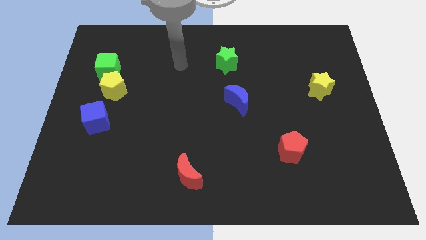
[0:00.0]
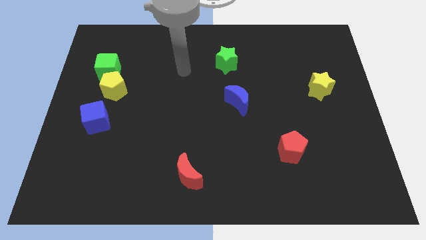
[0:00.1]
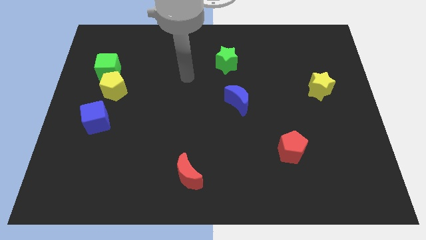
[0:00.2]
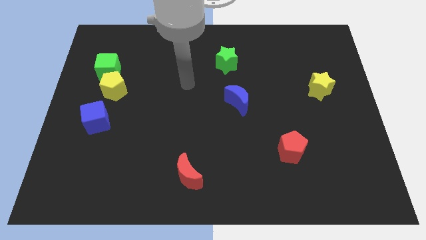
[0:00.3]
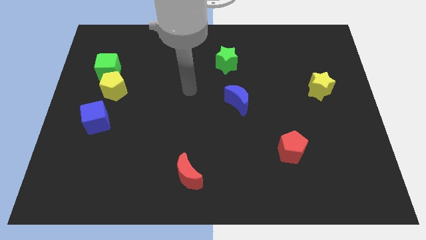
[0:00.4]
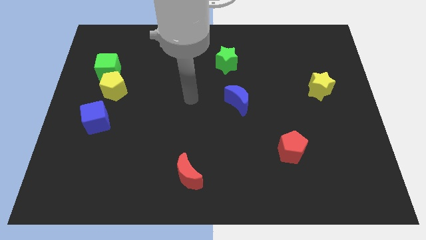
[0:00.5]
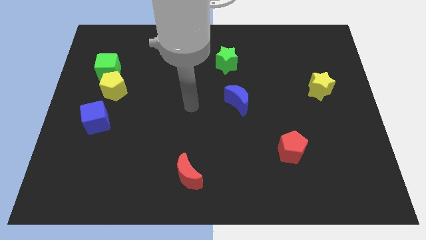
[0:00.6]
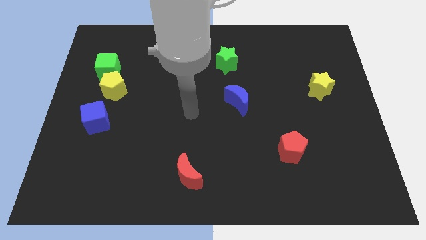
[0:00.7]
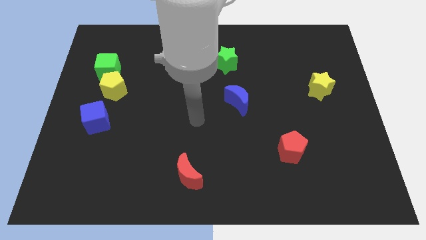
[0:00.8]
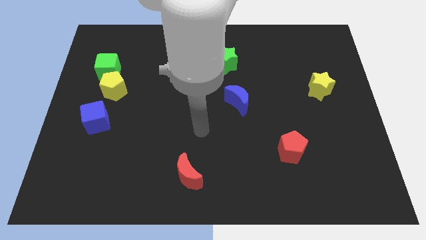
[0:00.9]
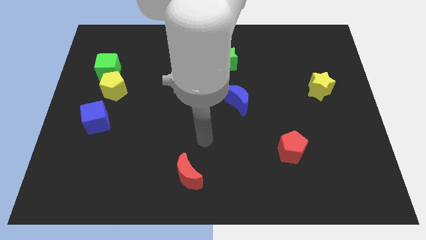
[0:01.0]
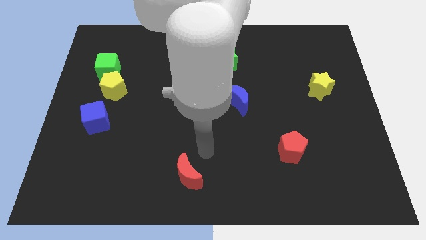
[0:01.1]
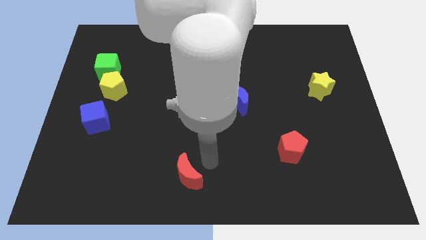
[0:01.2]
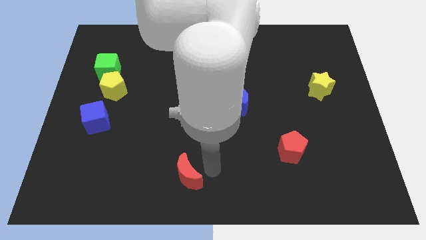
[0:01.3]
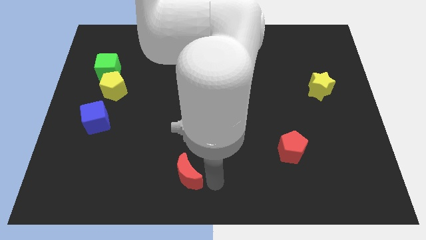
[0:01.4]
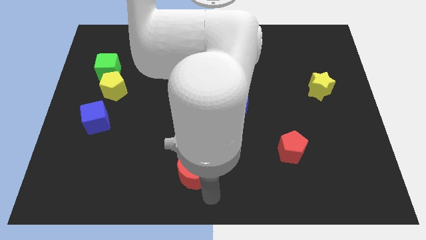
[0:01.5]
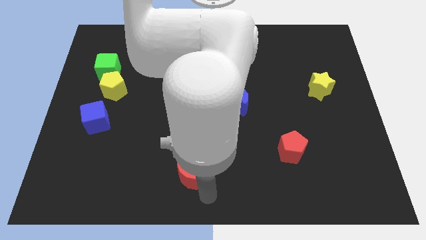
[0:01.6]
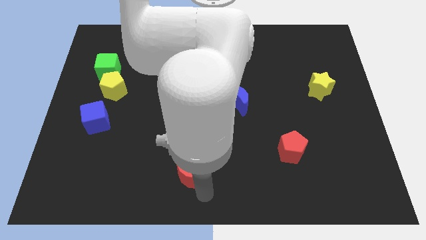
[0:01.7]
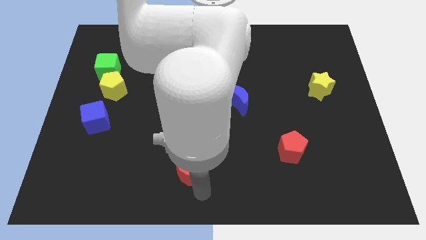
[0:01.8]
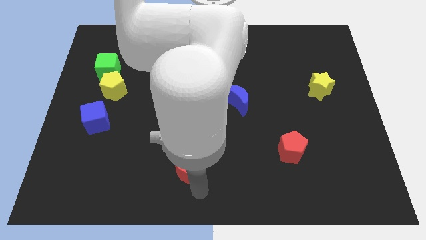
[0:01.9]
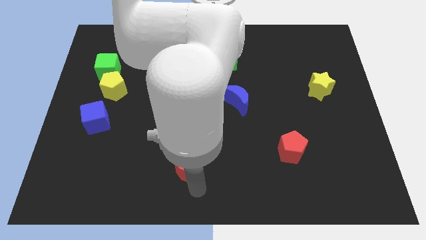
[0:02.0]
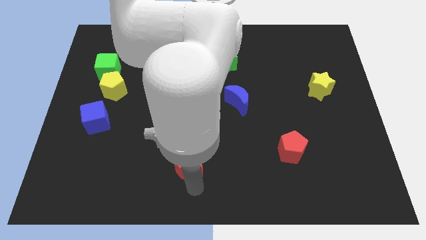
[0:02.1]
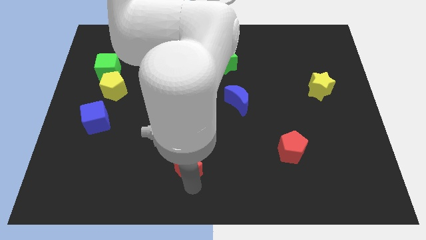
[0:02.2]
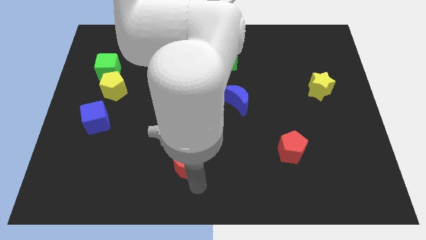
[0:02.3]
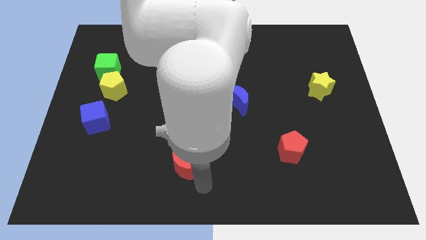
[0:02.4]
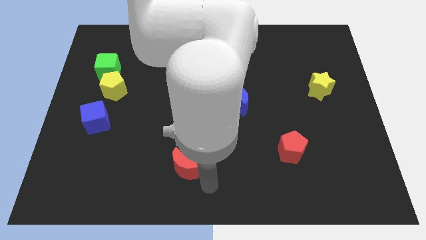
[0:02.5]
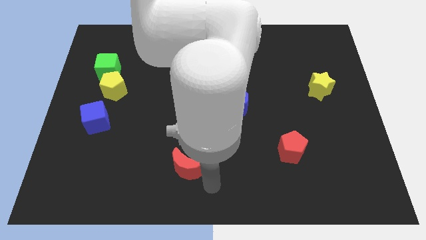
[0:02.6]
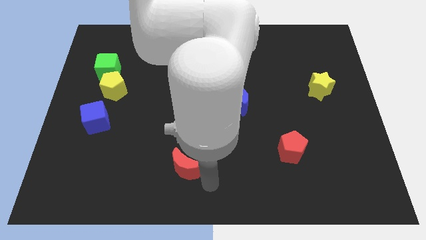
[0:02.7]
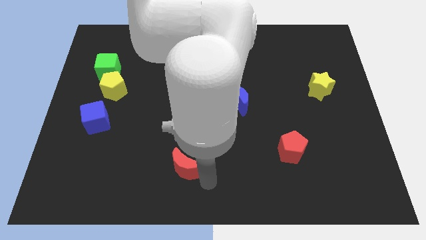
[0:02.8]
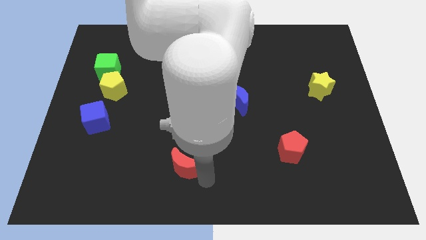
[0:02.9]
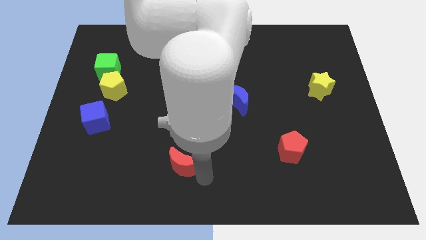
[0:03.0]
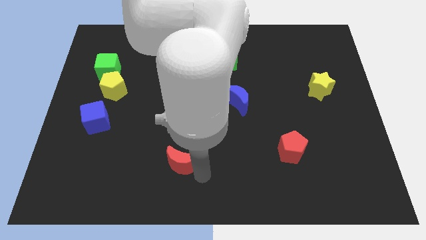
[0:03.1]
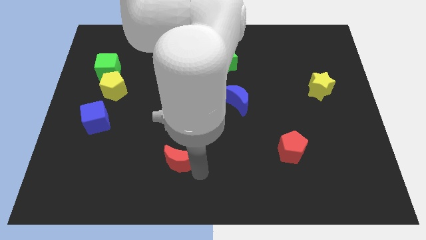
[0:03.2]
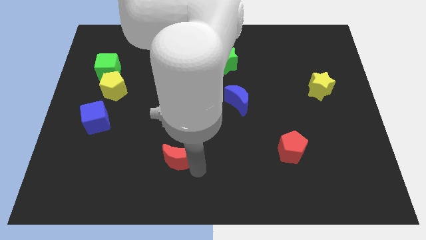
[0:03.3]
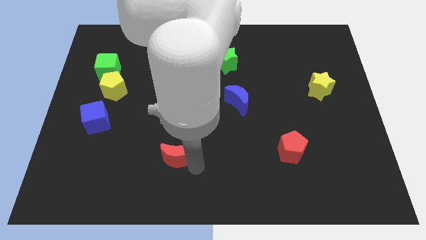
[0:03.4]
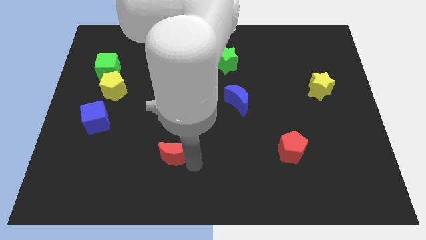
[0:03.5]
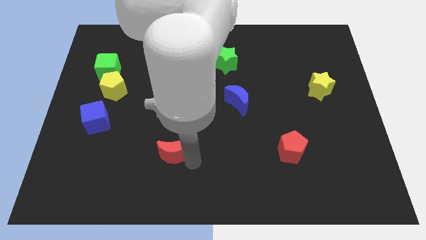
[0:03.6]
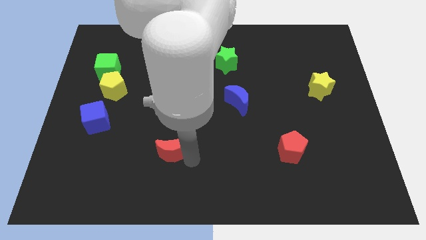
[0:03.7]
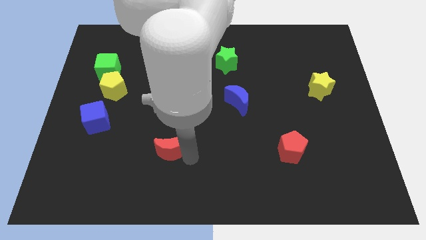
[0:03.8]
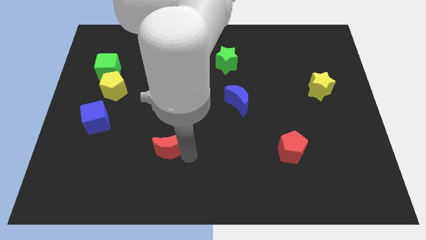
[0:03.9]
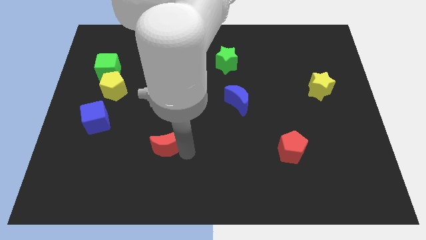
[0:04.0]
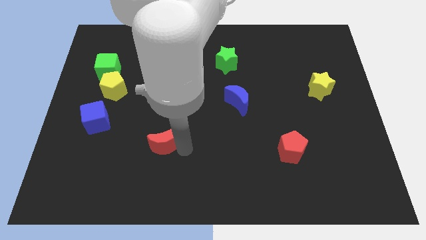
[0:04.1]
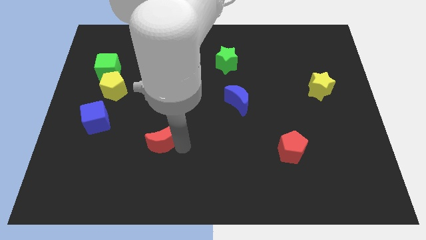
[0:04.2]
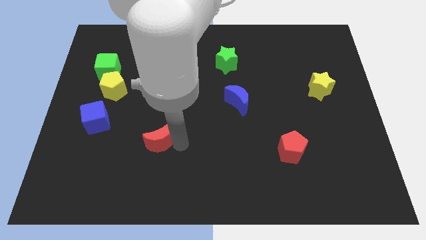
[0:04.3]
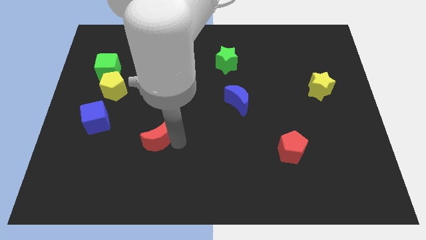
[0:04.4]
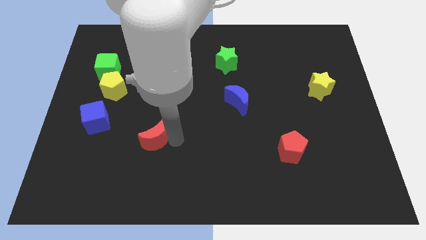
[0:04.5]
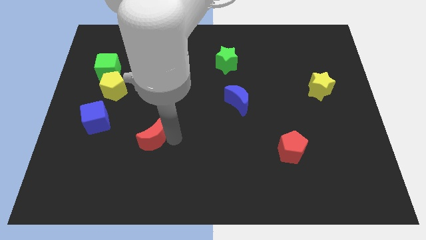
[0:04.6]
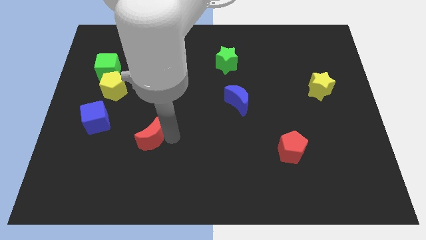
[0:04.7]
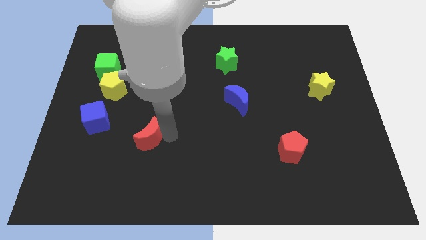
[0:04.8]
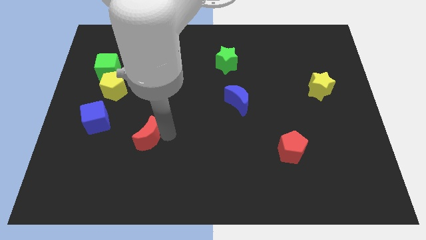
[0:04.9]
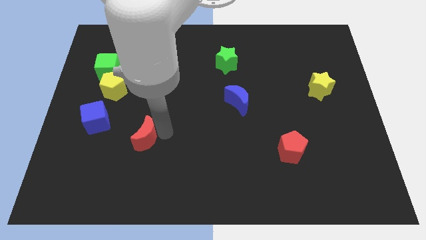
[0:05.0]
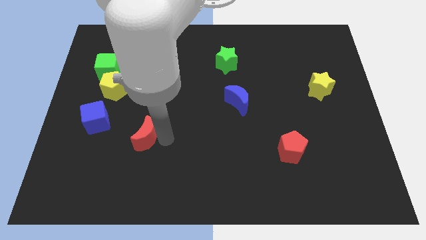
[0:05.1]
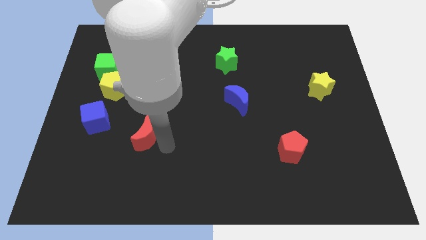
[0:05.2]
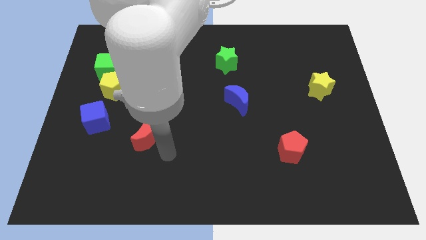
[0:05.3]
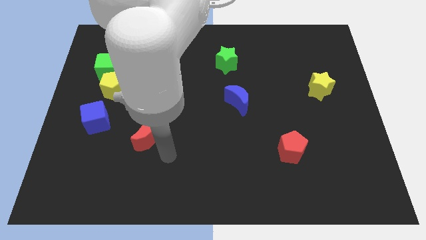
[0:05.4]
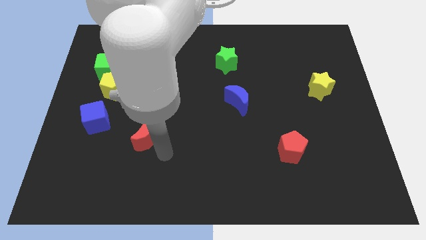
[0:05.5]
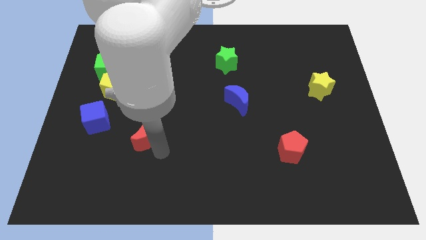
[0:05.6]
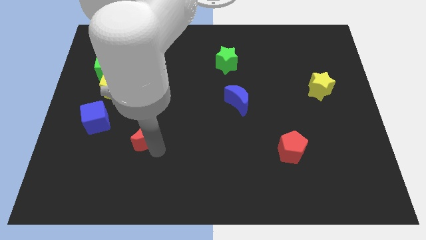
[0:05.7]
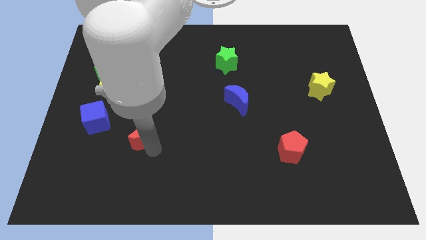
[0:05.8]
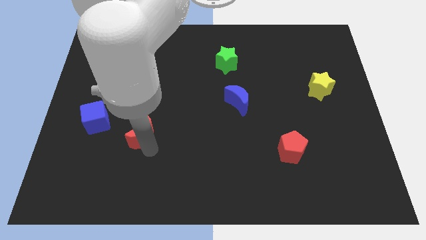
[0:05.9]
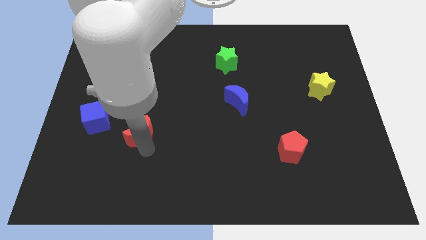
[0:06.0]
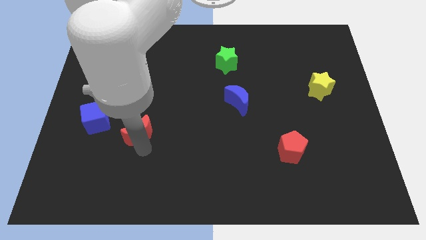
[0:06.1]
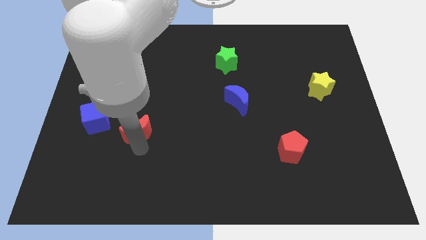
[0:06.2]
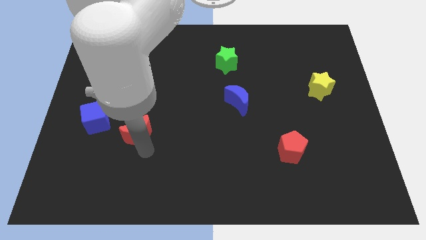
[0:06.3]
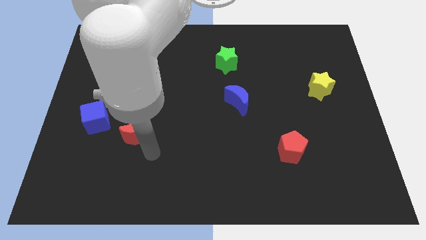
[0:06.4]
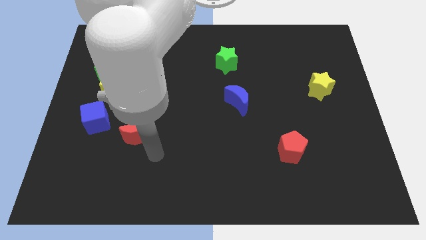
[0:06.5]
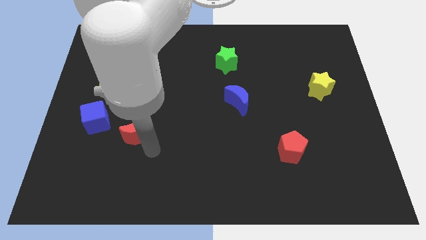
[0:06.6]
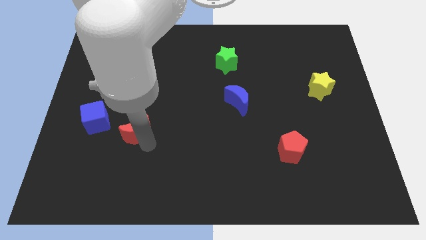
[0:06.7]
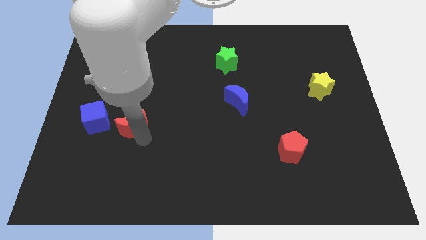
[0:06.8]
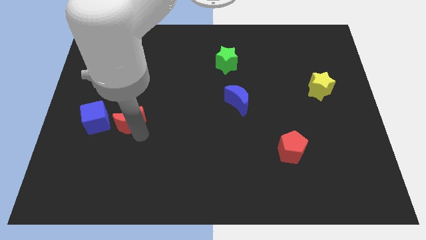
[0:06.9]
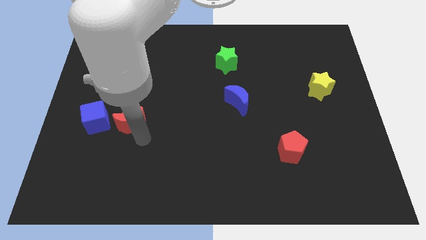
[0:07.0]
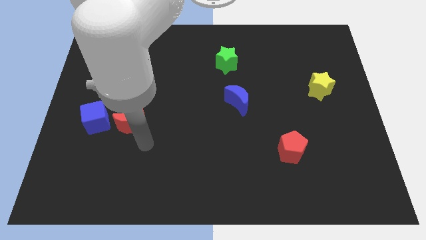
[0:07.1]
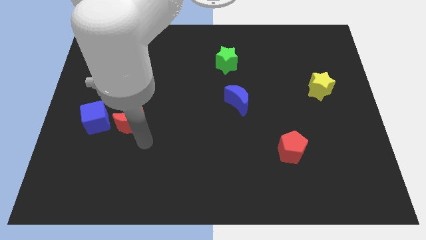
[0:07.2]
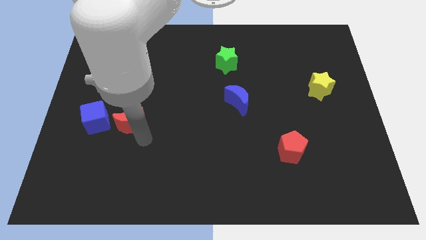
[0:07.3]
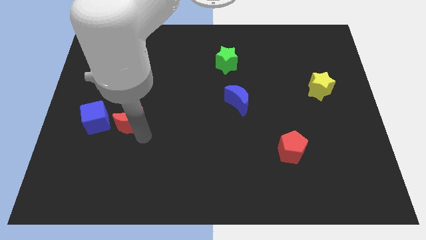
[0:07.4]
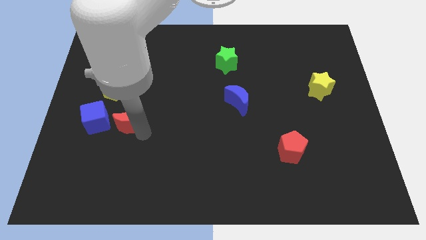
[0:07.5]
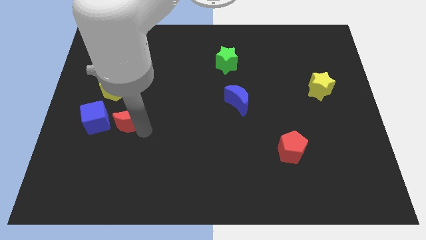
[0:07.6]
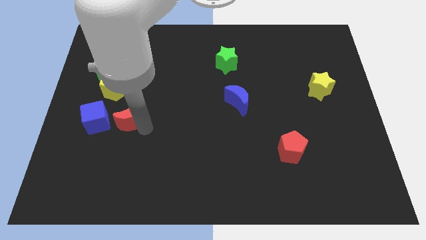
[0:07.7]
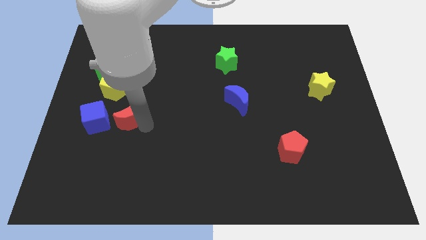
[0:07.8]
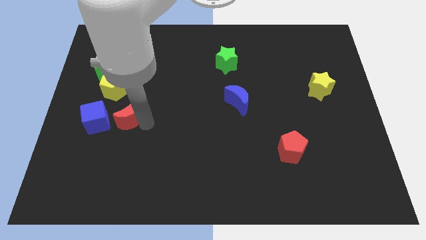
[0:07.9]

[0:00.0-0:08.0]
push the red moon up and then left
